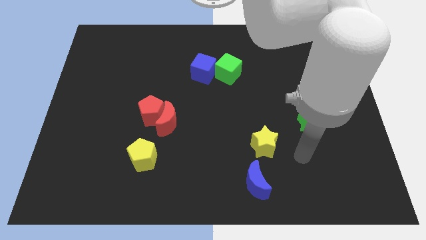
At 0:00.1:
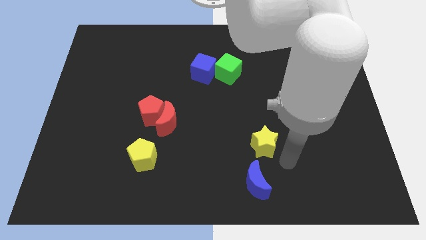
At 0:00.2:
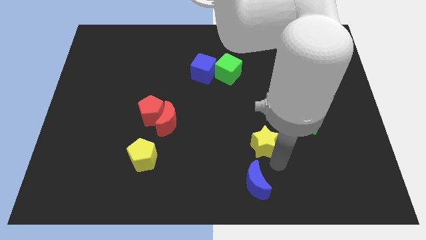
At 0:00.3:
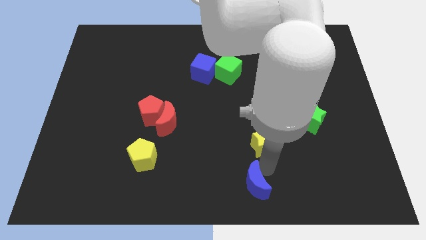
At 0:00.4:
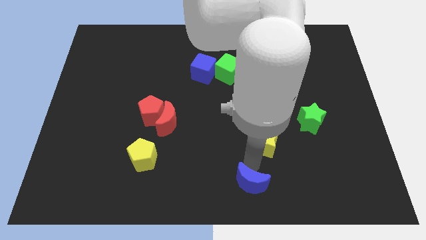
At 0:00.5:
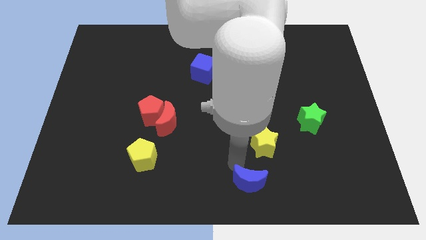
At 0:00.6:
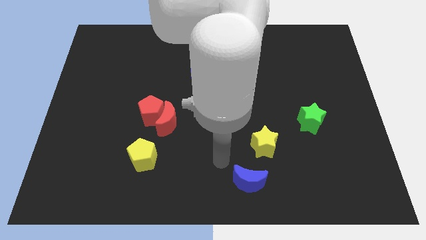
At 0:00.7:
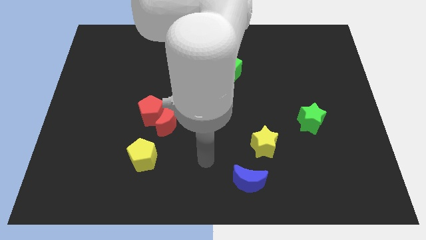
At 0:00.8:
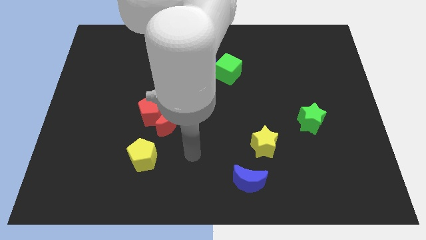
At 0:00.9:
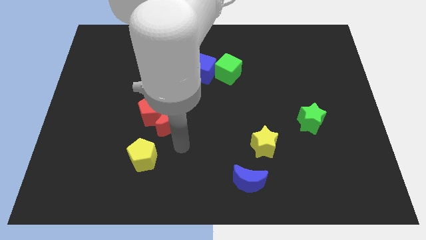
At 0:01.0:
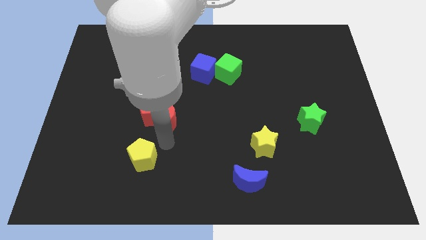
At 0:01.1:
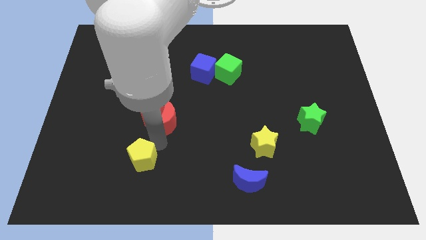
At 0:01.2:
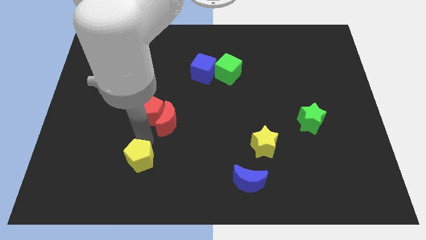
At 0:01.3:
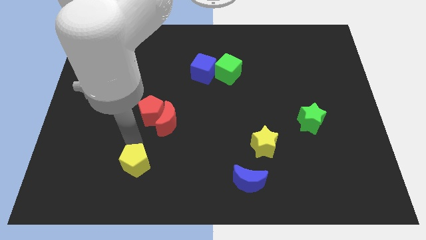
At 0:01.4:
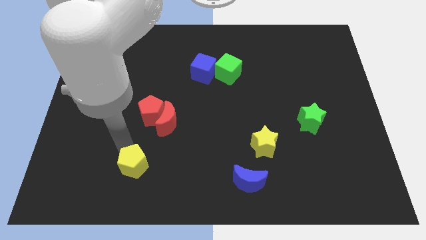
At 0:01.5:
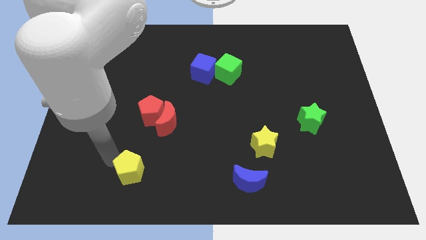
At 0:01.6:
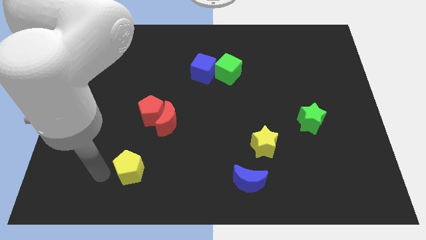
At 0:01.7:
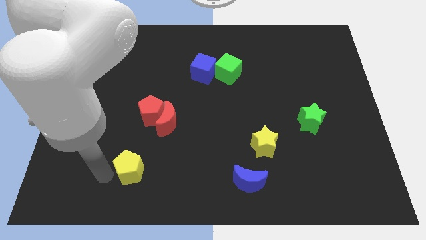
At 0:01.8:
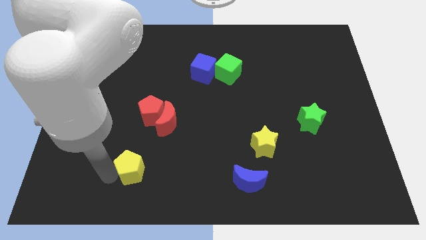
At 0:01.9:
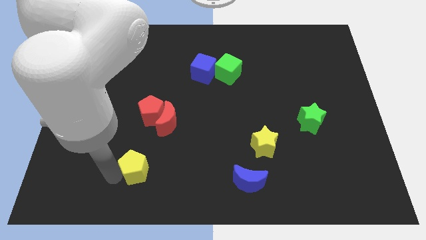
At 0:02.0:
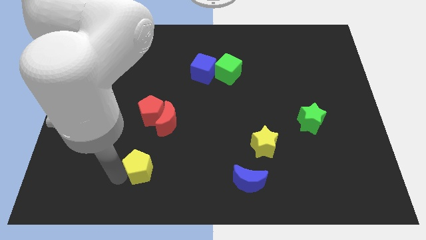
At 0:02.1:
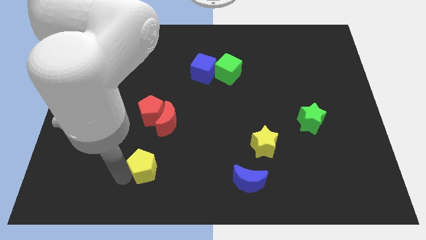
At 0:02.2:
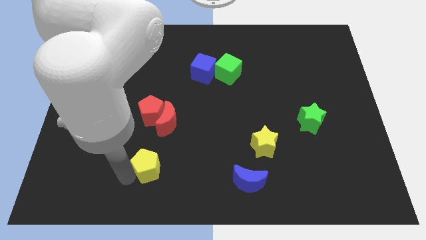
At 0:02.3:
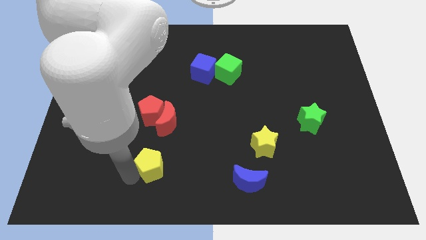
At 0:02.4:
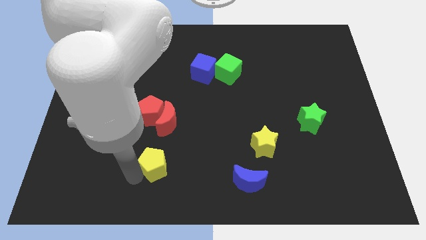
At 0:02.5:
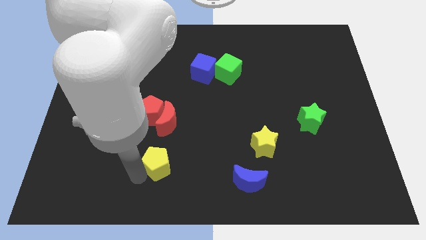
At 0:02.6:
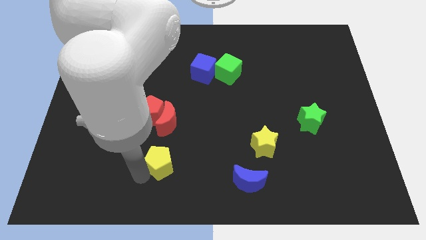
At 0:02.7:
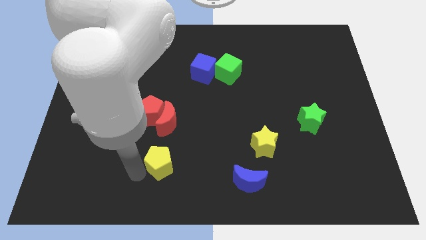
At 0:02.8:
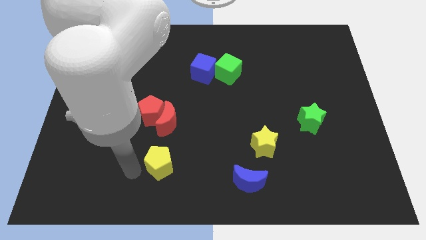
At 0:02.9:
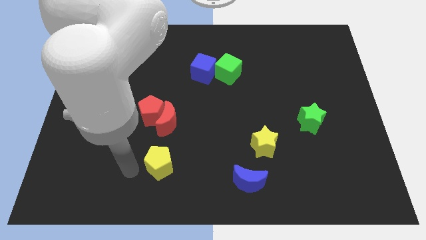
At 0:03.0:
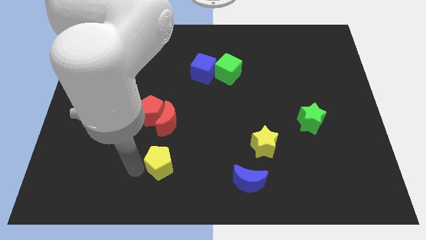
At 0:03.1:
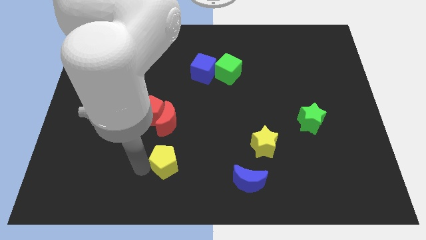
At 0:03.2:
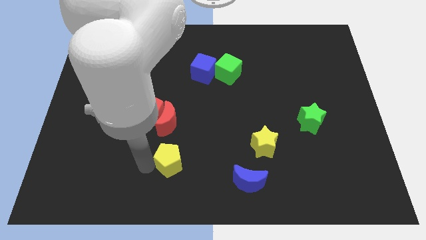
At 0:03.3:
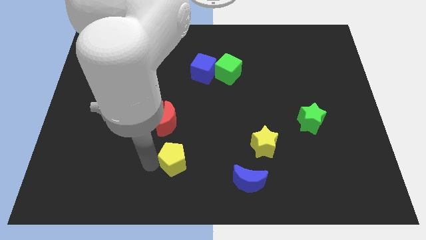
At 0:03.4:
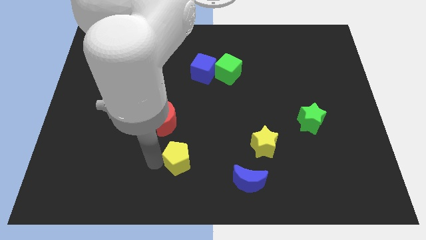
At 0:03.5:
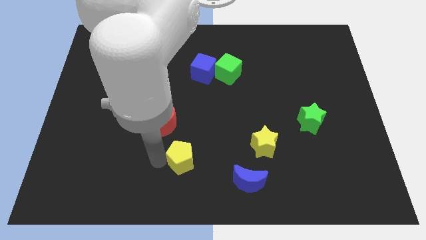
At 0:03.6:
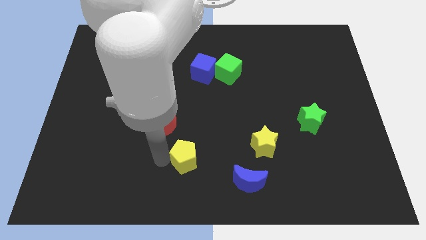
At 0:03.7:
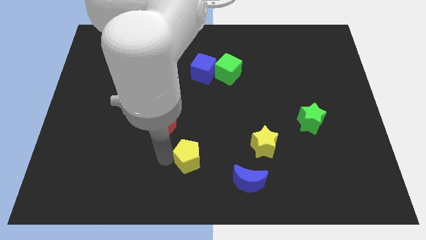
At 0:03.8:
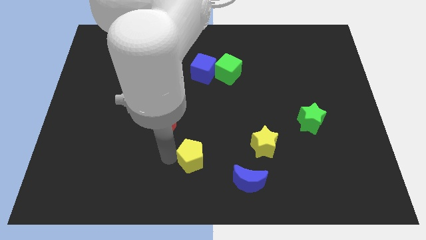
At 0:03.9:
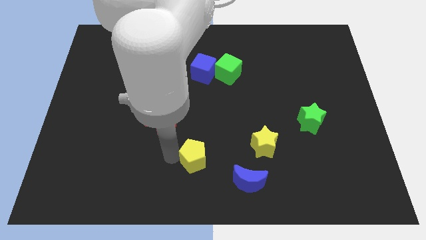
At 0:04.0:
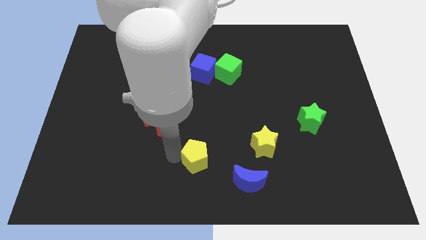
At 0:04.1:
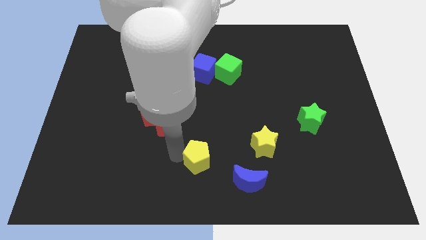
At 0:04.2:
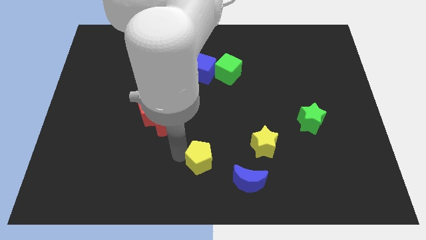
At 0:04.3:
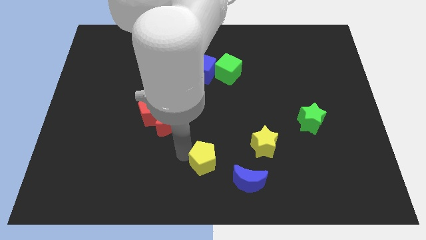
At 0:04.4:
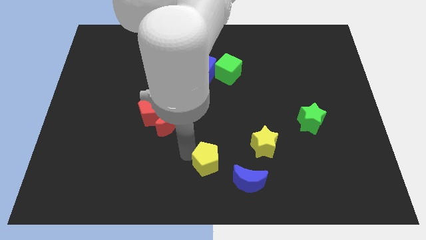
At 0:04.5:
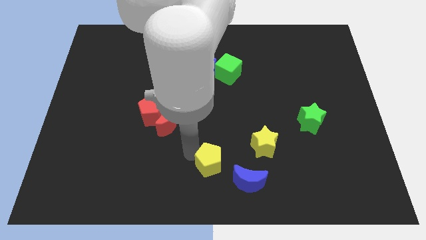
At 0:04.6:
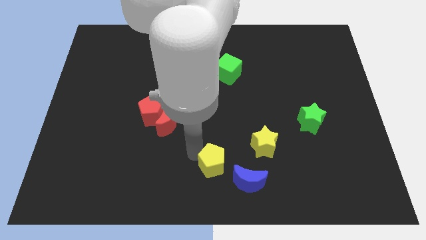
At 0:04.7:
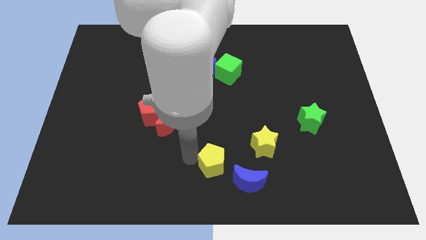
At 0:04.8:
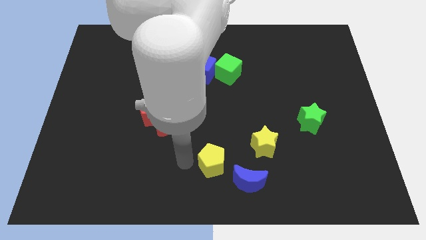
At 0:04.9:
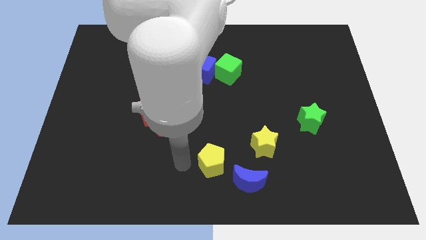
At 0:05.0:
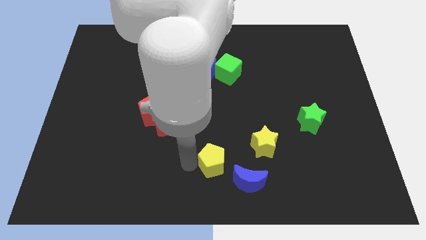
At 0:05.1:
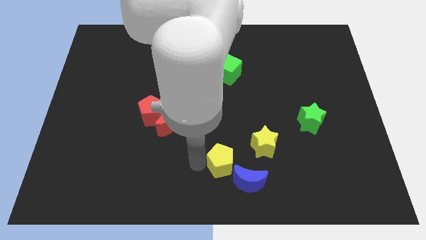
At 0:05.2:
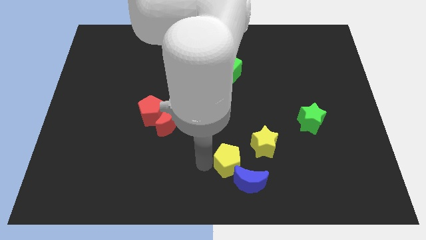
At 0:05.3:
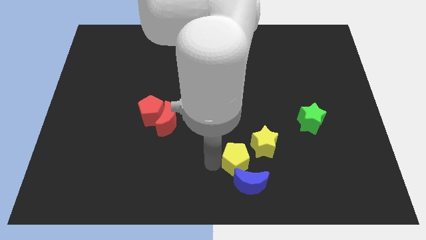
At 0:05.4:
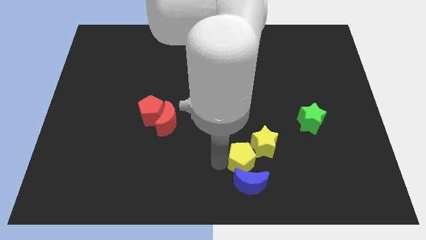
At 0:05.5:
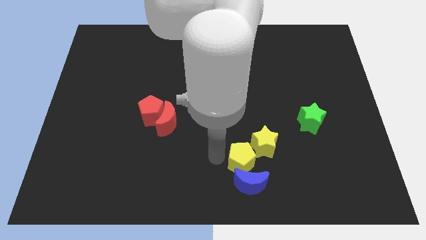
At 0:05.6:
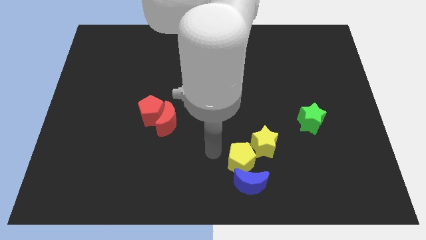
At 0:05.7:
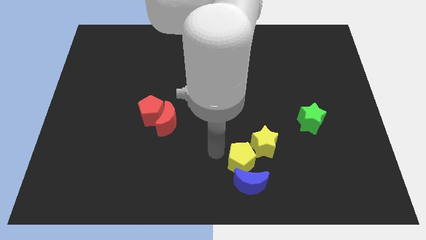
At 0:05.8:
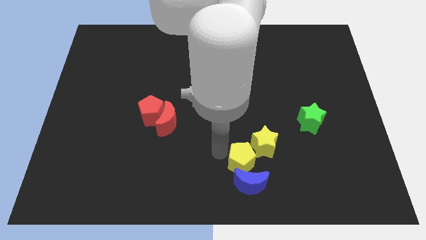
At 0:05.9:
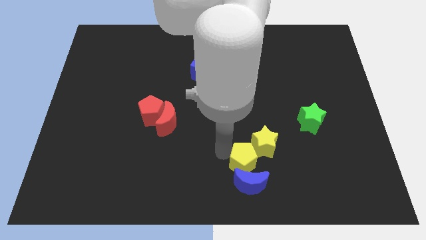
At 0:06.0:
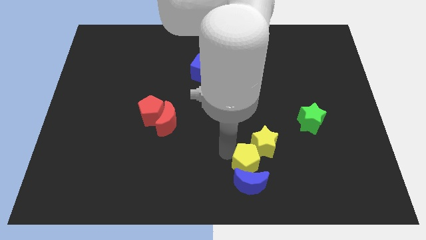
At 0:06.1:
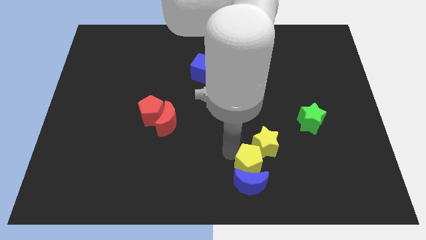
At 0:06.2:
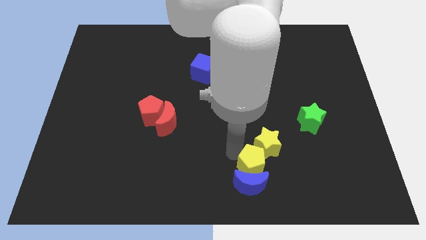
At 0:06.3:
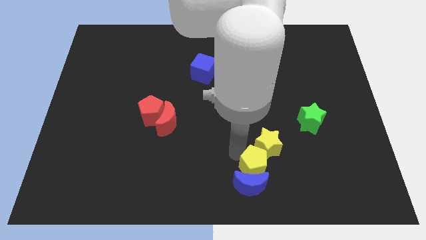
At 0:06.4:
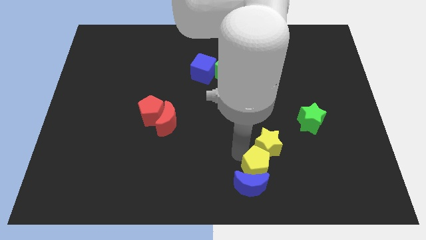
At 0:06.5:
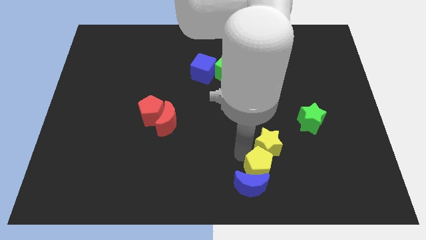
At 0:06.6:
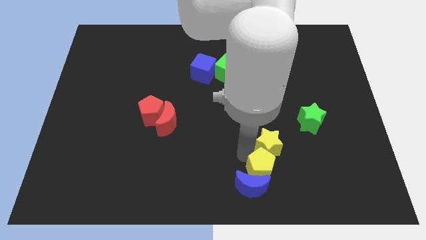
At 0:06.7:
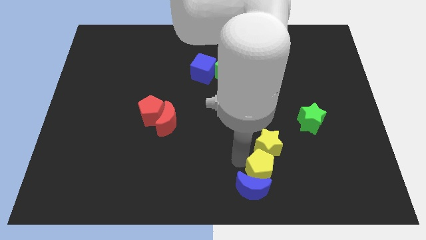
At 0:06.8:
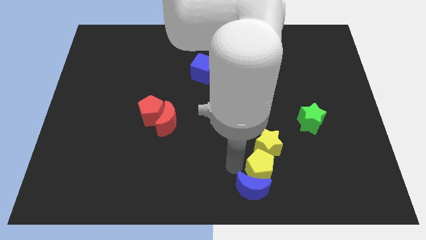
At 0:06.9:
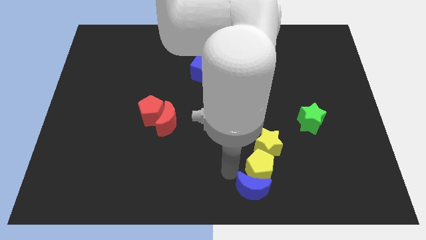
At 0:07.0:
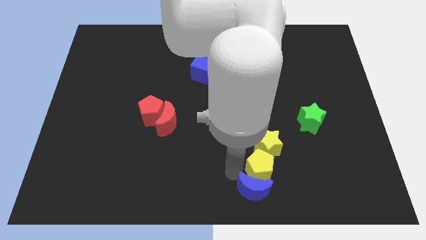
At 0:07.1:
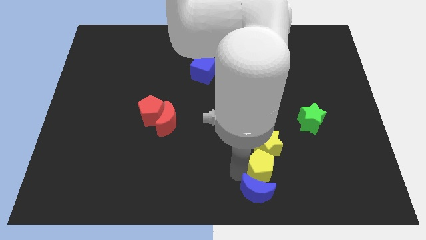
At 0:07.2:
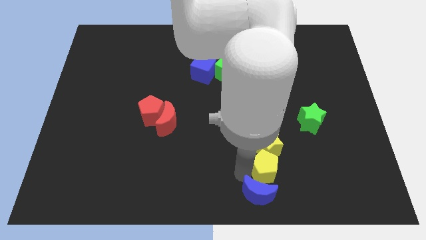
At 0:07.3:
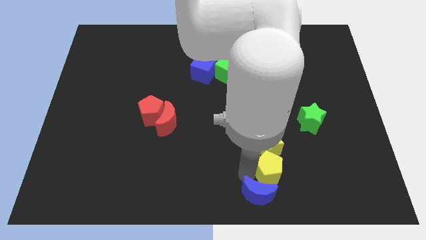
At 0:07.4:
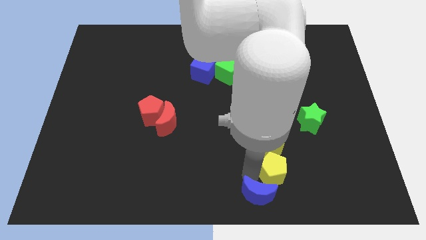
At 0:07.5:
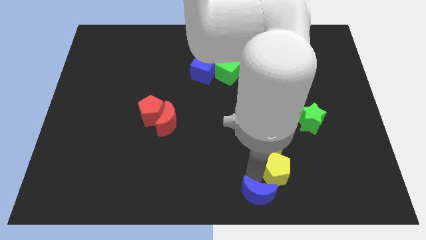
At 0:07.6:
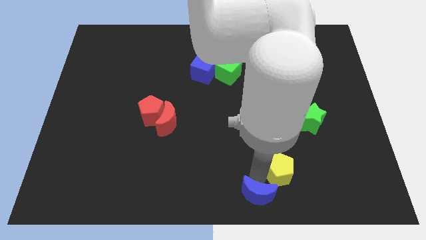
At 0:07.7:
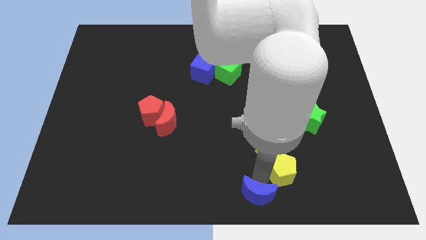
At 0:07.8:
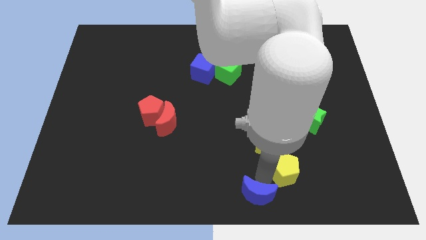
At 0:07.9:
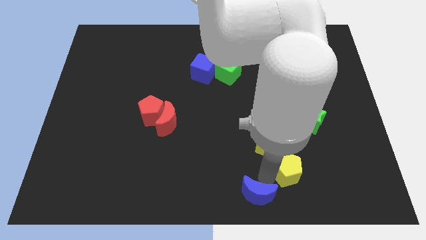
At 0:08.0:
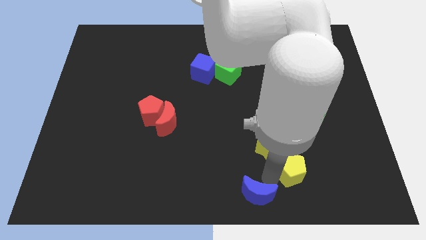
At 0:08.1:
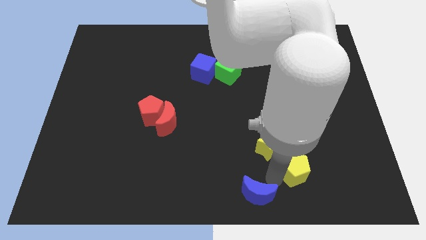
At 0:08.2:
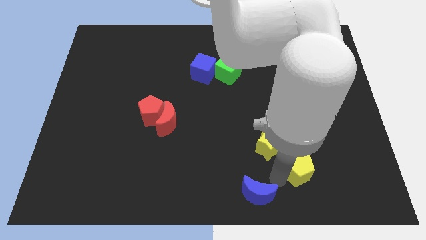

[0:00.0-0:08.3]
put the yellow pentagon to the bottom side of the green star
